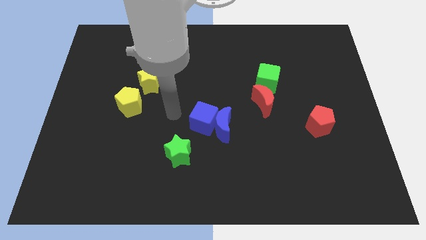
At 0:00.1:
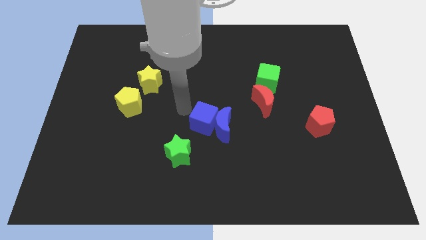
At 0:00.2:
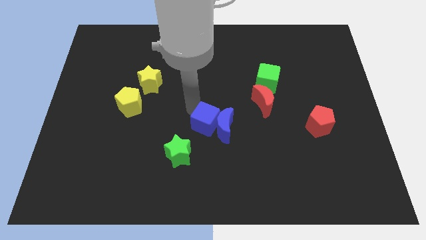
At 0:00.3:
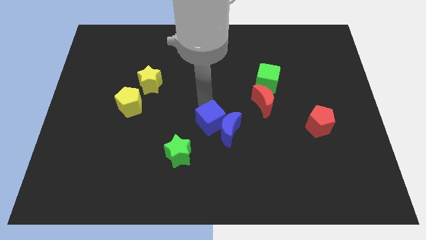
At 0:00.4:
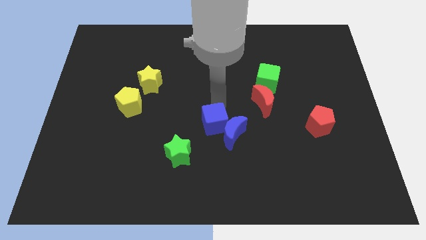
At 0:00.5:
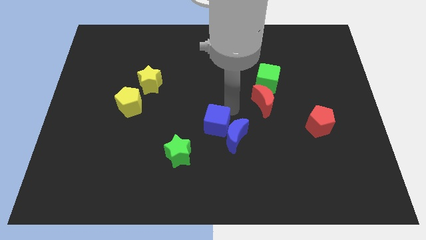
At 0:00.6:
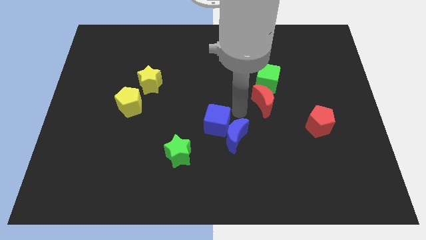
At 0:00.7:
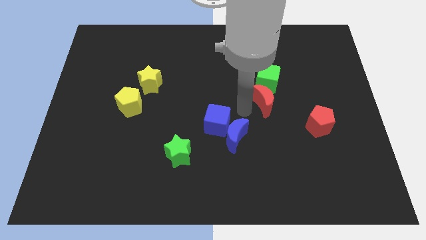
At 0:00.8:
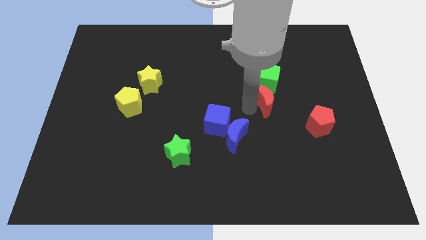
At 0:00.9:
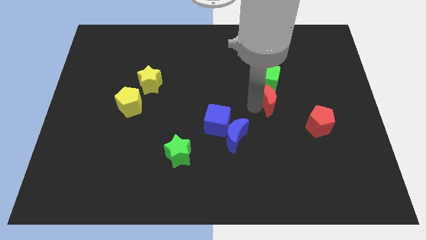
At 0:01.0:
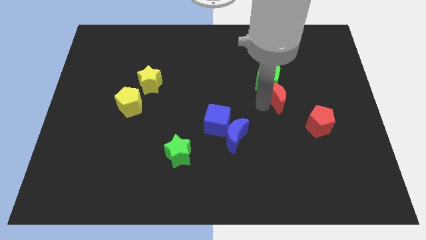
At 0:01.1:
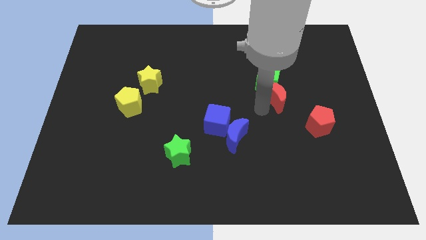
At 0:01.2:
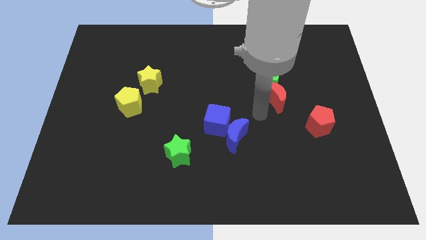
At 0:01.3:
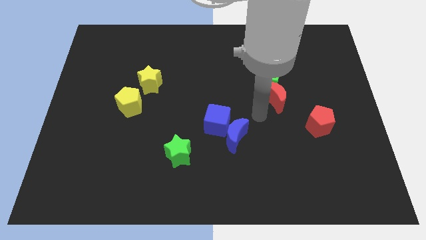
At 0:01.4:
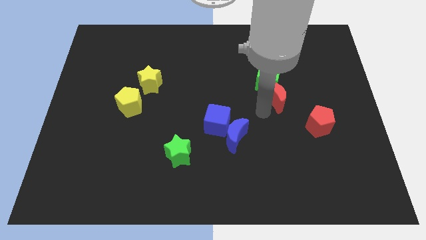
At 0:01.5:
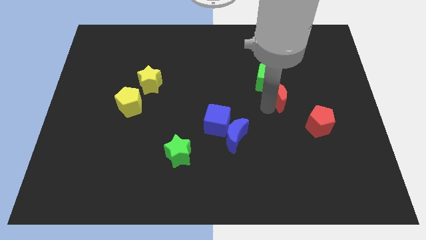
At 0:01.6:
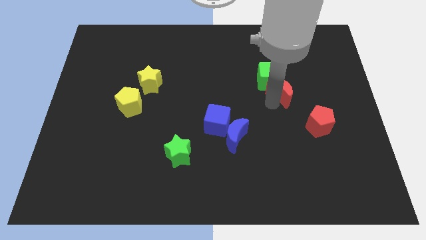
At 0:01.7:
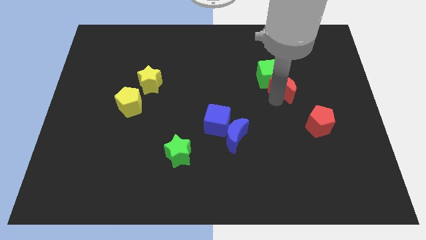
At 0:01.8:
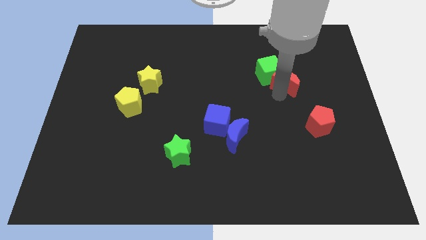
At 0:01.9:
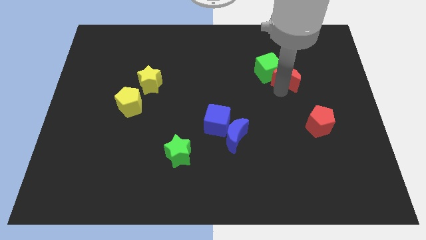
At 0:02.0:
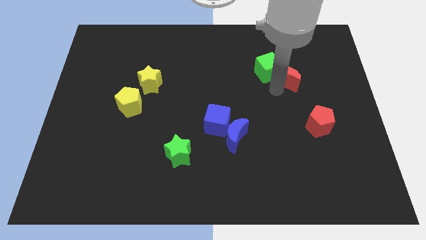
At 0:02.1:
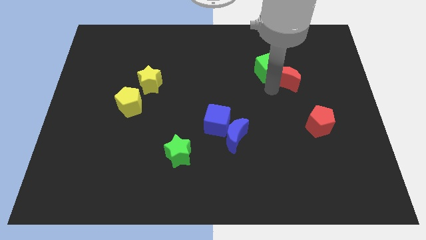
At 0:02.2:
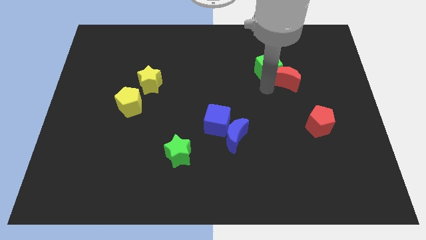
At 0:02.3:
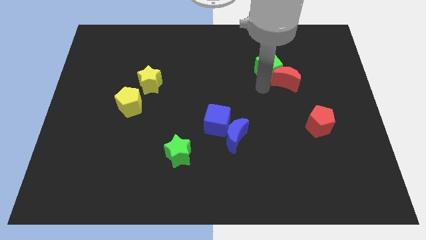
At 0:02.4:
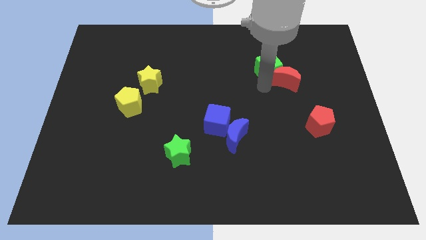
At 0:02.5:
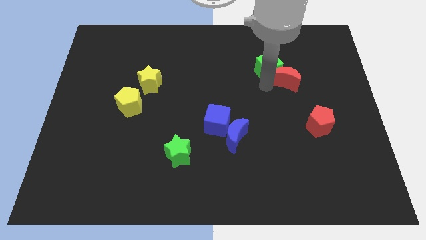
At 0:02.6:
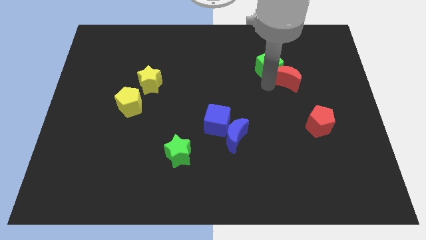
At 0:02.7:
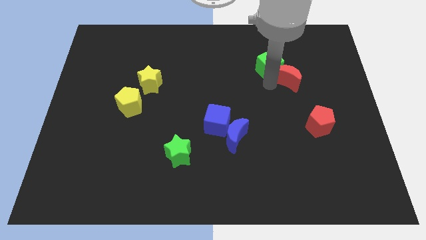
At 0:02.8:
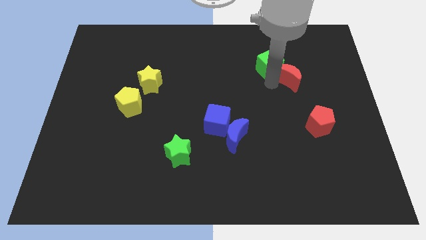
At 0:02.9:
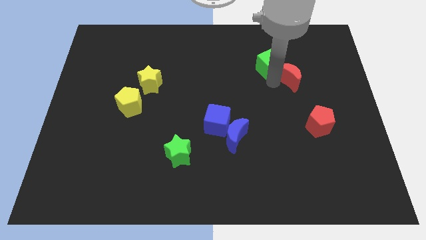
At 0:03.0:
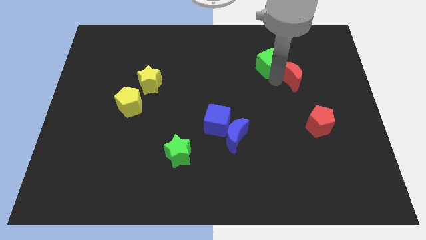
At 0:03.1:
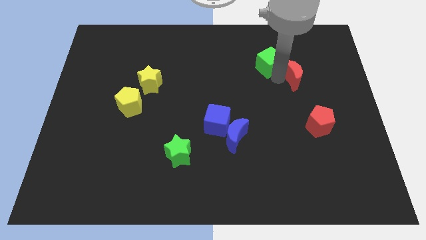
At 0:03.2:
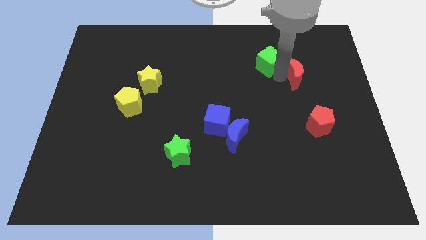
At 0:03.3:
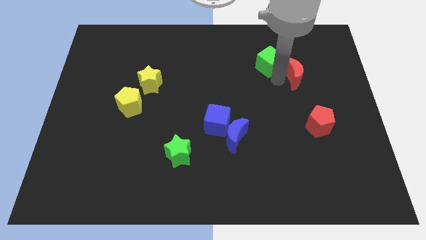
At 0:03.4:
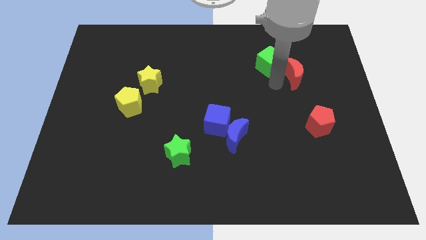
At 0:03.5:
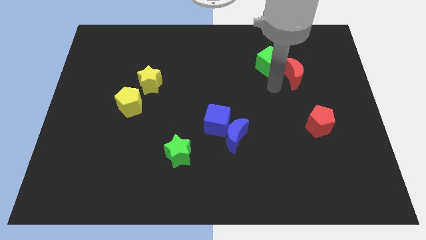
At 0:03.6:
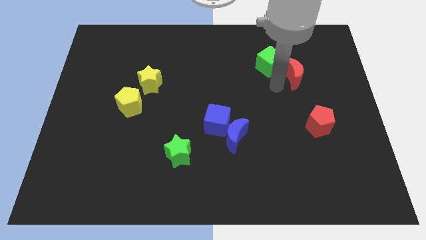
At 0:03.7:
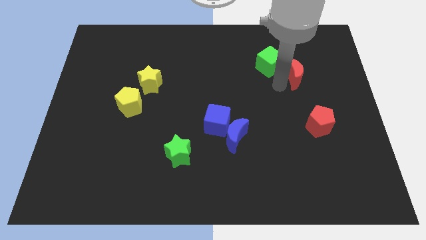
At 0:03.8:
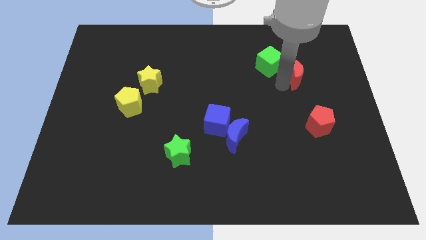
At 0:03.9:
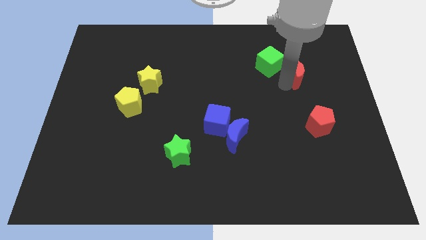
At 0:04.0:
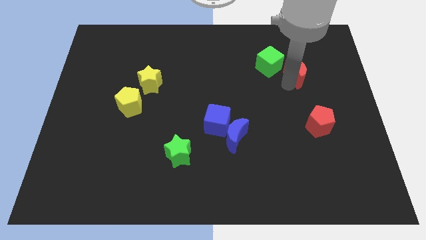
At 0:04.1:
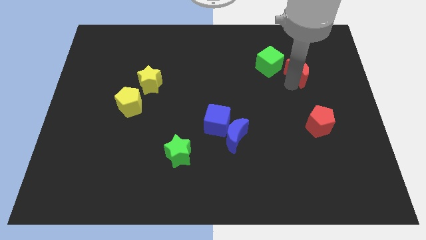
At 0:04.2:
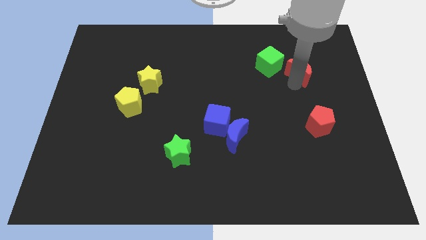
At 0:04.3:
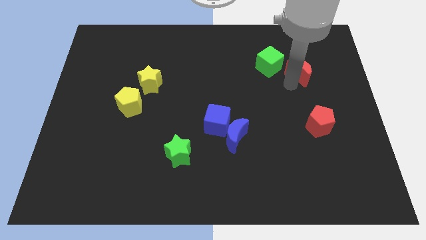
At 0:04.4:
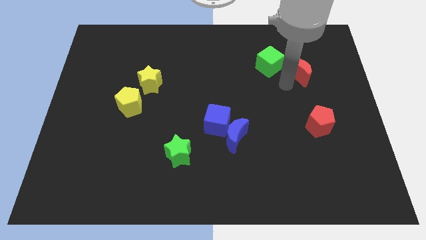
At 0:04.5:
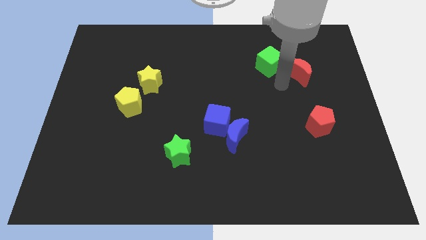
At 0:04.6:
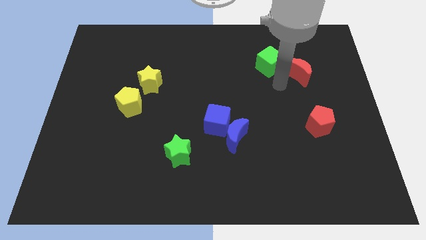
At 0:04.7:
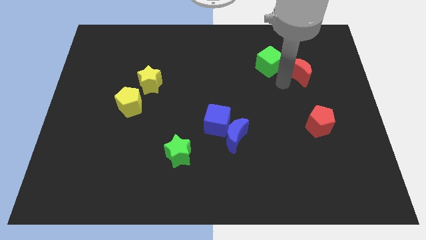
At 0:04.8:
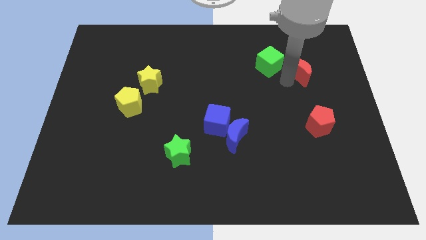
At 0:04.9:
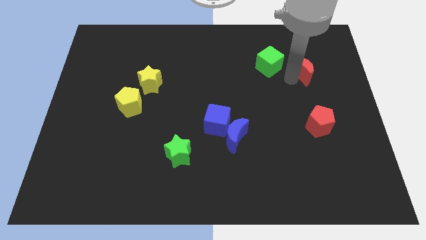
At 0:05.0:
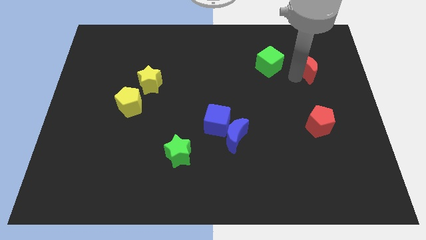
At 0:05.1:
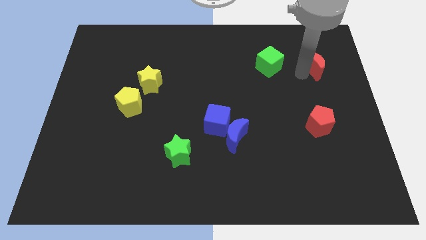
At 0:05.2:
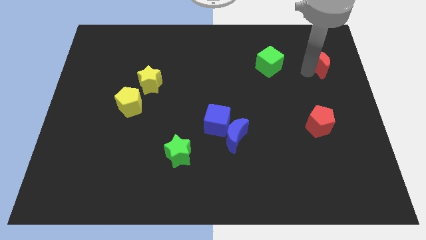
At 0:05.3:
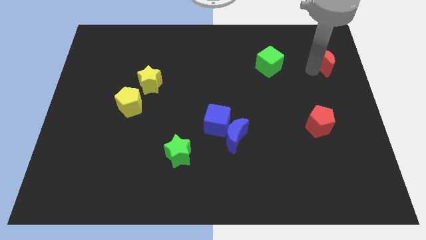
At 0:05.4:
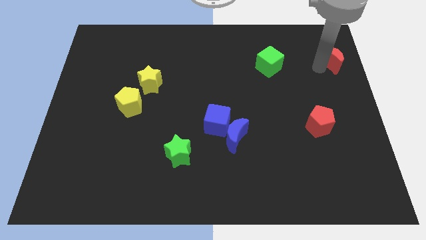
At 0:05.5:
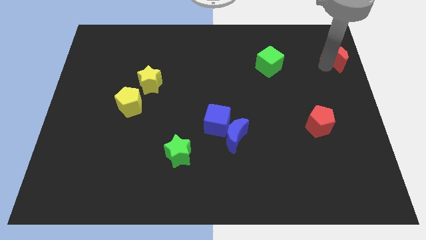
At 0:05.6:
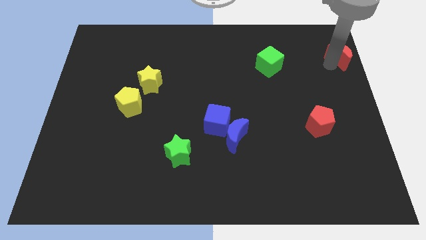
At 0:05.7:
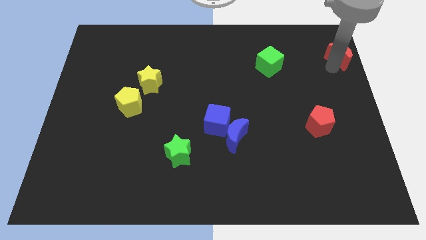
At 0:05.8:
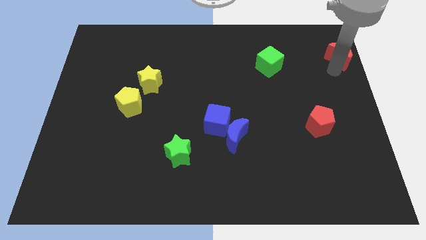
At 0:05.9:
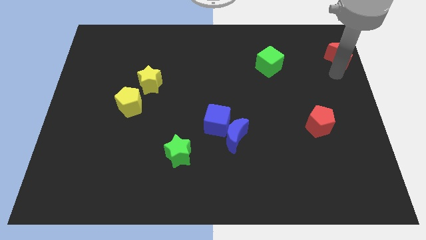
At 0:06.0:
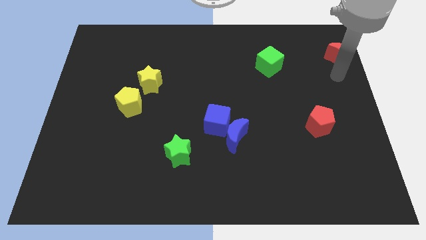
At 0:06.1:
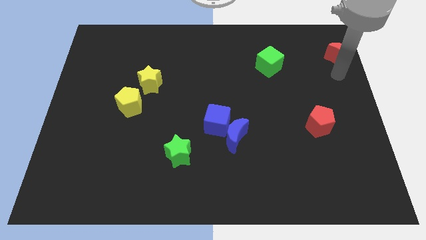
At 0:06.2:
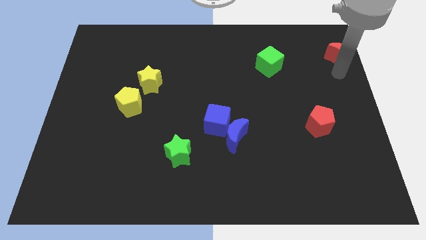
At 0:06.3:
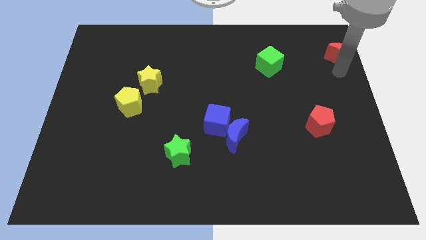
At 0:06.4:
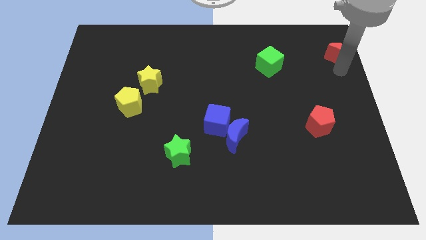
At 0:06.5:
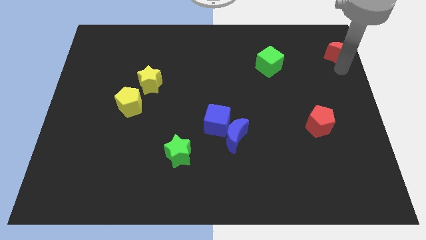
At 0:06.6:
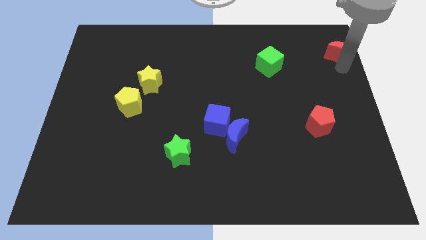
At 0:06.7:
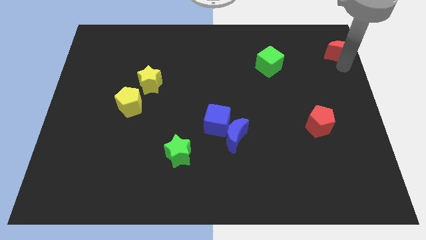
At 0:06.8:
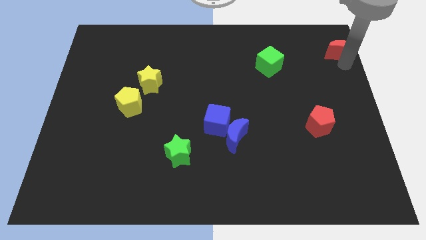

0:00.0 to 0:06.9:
put the red moon to the top right of the board
